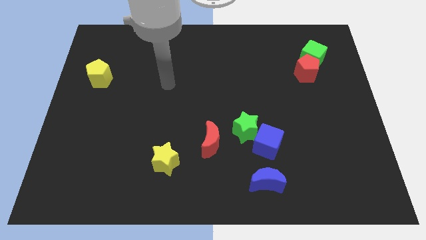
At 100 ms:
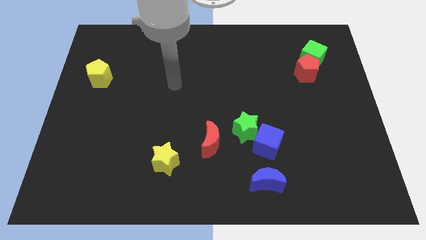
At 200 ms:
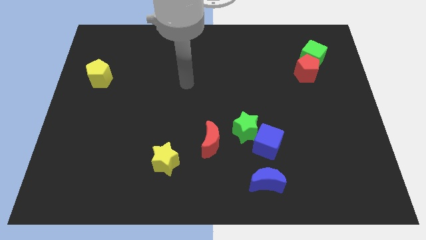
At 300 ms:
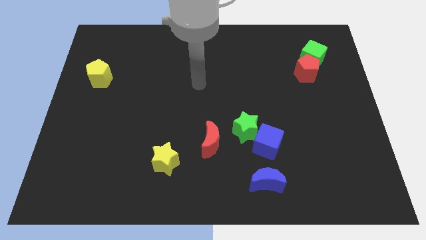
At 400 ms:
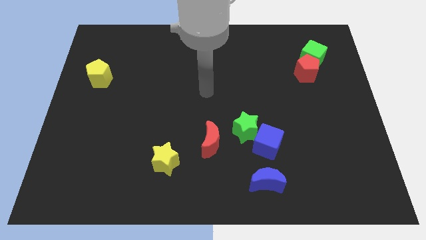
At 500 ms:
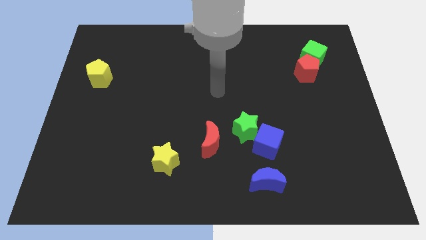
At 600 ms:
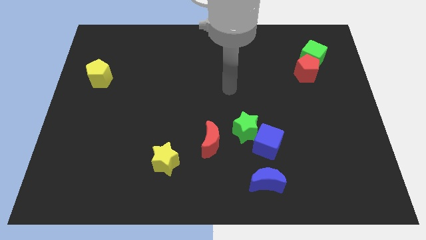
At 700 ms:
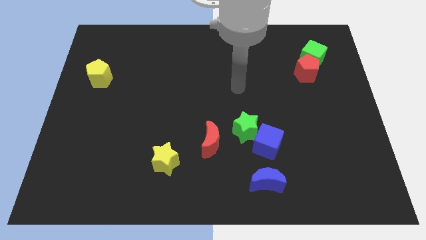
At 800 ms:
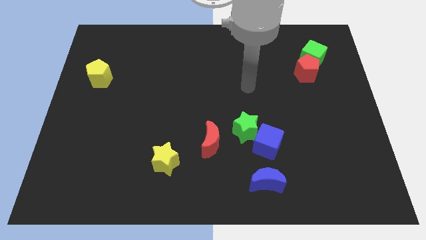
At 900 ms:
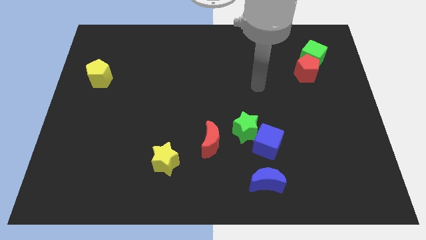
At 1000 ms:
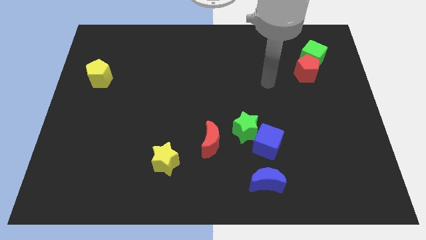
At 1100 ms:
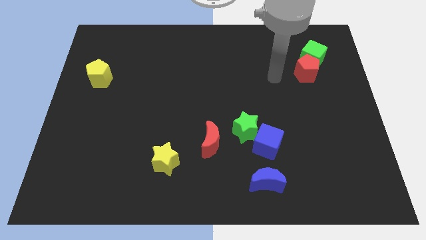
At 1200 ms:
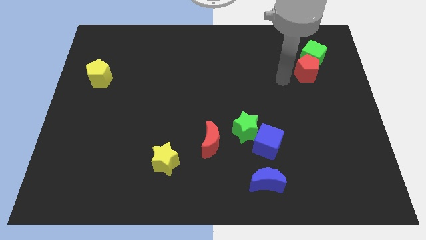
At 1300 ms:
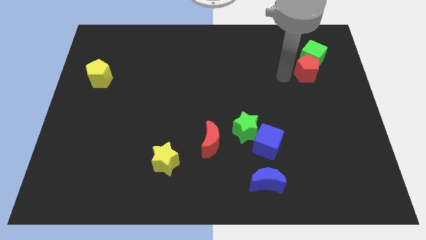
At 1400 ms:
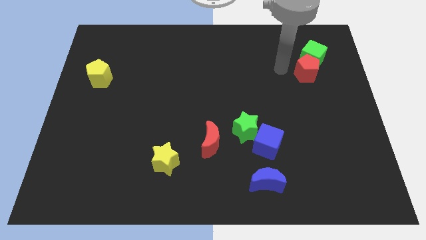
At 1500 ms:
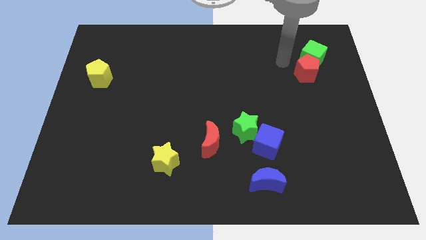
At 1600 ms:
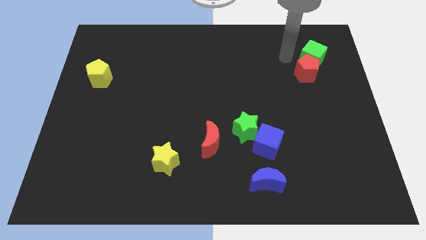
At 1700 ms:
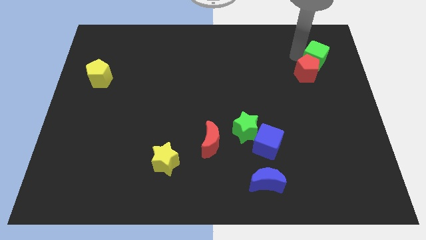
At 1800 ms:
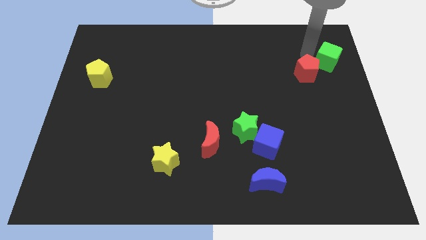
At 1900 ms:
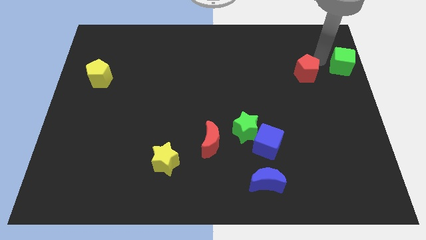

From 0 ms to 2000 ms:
pull the red pentagon apart from the green cube

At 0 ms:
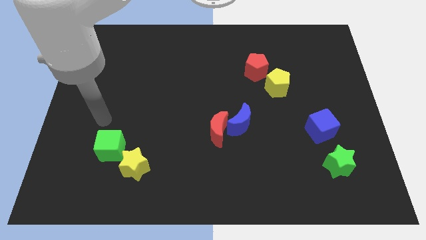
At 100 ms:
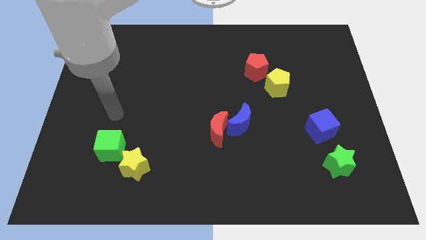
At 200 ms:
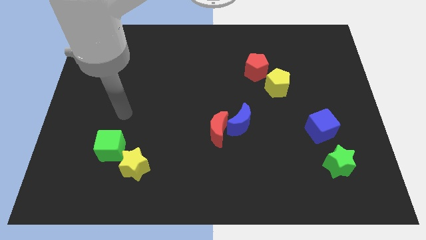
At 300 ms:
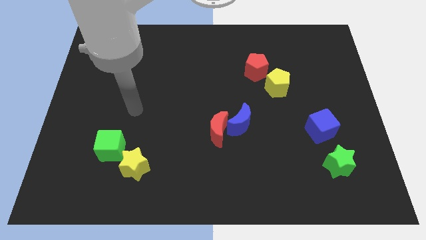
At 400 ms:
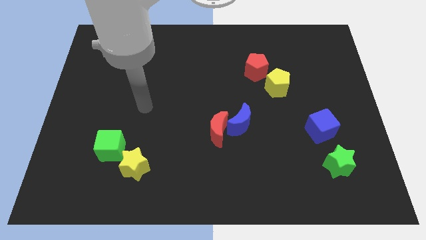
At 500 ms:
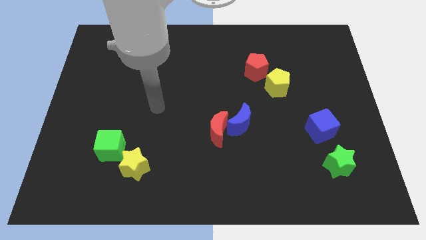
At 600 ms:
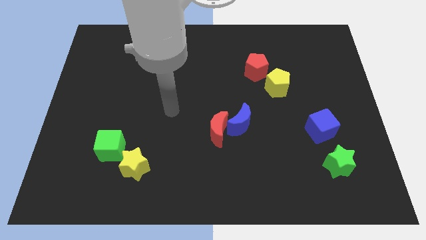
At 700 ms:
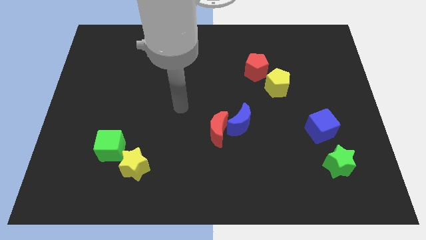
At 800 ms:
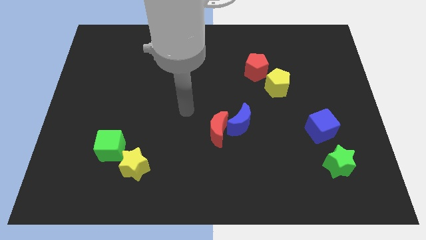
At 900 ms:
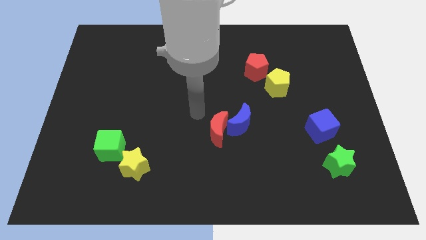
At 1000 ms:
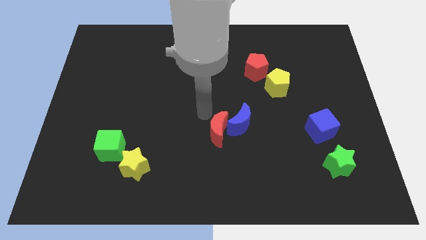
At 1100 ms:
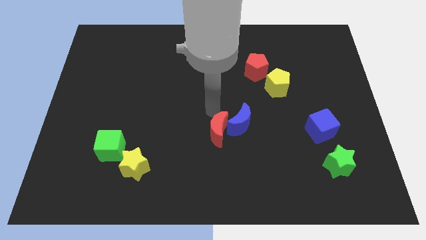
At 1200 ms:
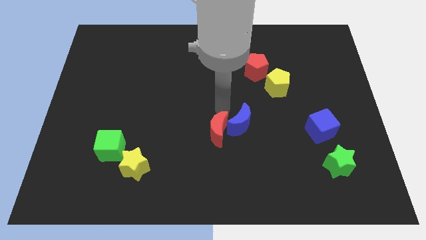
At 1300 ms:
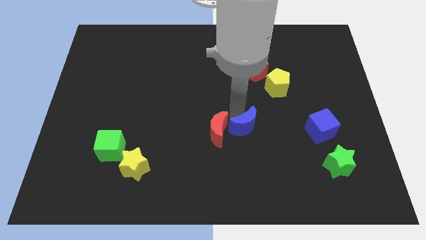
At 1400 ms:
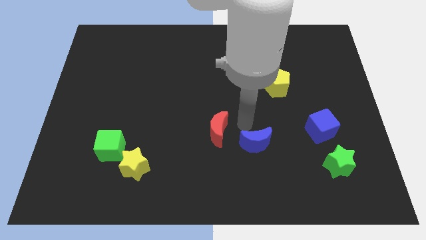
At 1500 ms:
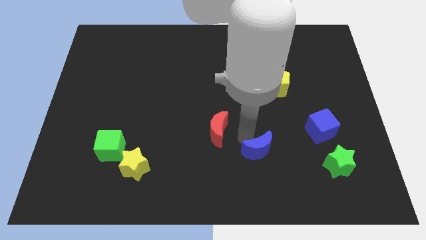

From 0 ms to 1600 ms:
move the red moon away from the blue moon

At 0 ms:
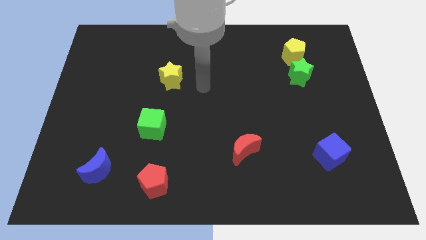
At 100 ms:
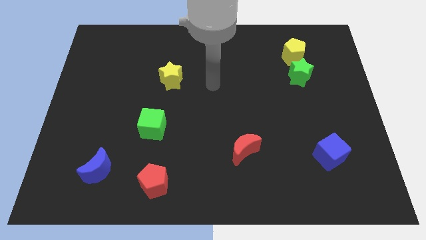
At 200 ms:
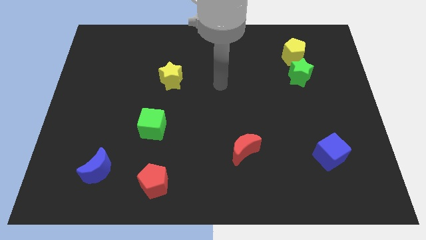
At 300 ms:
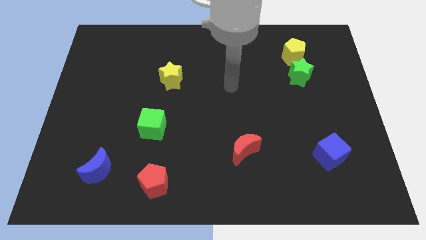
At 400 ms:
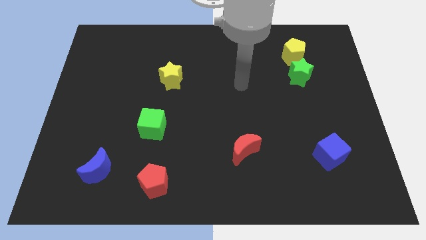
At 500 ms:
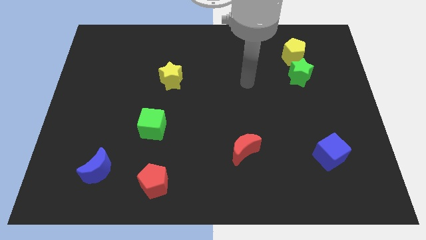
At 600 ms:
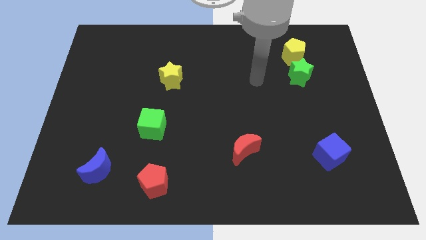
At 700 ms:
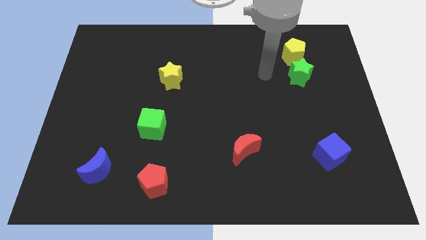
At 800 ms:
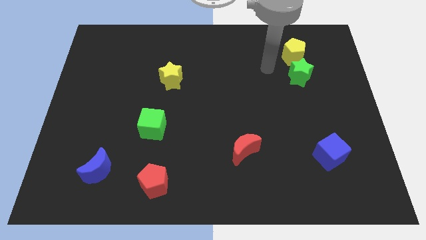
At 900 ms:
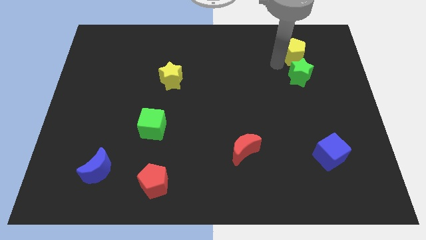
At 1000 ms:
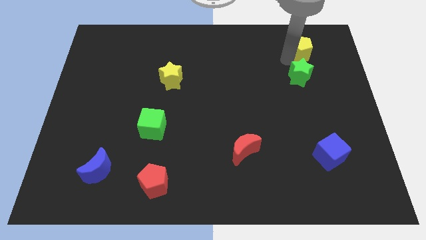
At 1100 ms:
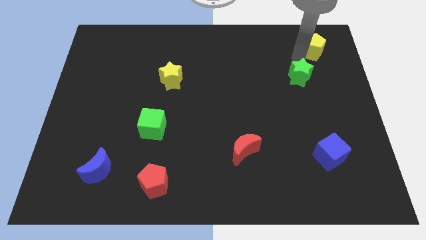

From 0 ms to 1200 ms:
pull the green star apart from the yellow pentagon

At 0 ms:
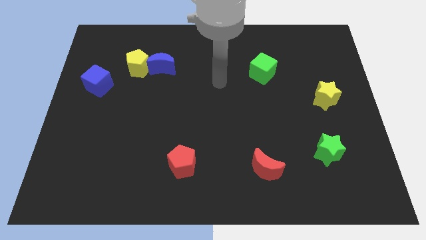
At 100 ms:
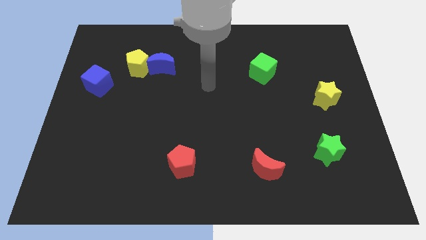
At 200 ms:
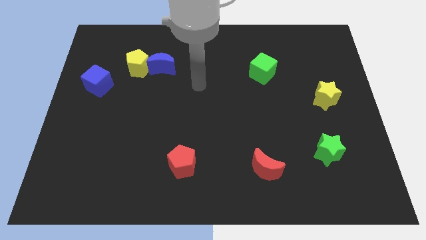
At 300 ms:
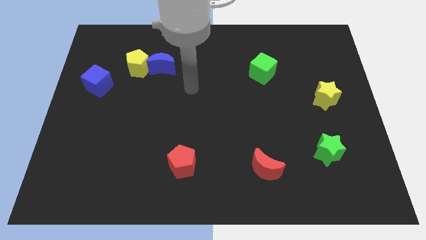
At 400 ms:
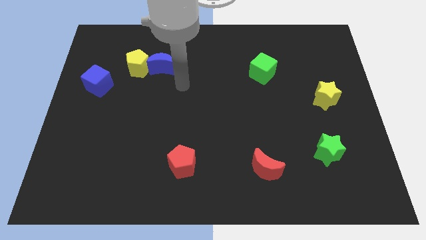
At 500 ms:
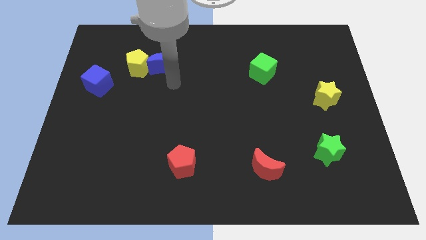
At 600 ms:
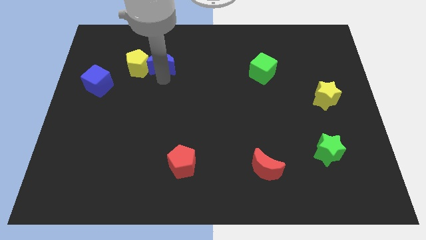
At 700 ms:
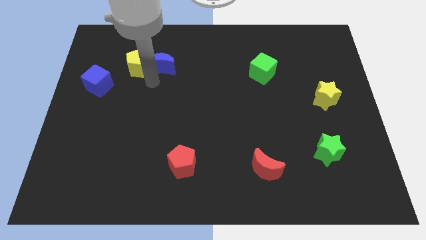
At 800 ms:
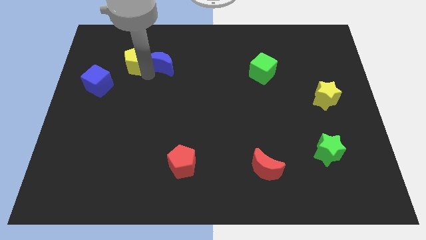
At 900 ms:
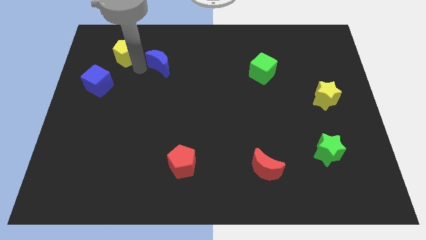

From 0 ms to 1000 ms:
pull the blue moon apart from the yellow pentagon

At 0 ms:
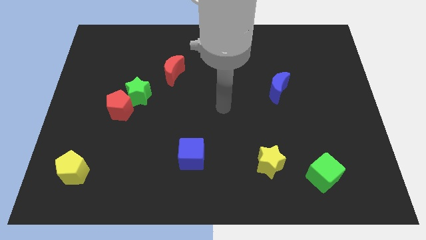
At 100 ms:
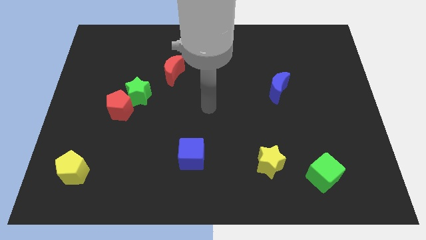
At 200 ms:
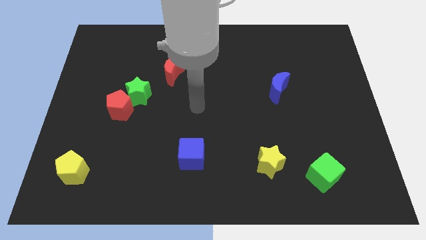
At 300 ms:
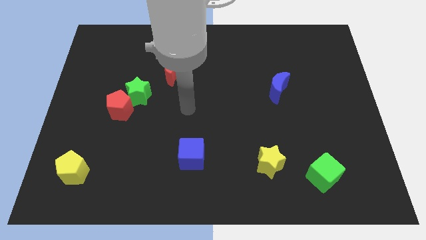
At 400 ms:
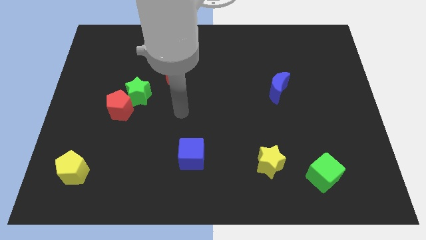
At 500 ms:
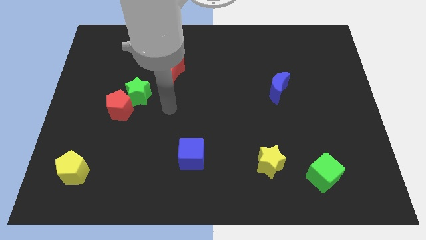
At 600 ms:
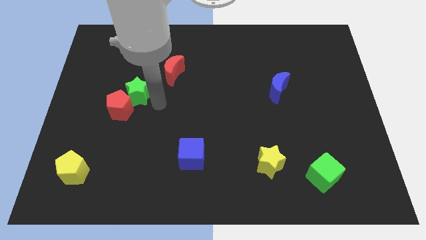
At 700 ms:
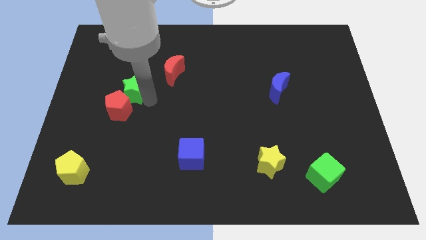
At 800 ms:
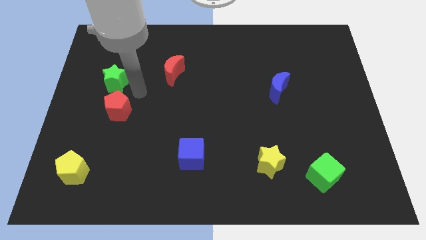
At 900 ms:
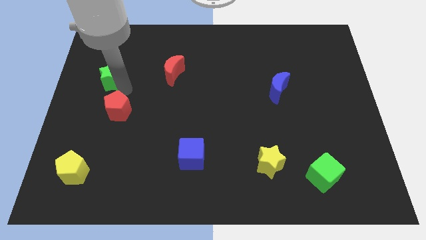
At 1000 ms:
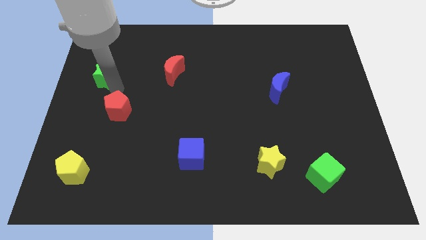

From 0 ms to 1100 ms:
separate the red pentagon from the green star

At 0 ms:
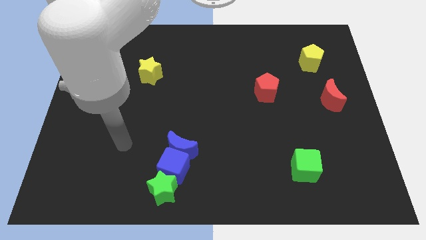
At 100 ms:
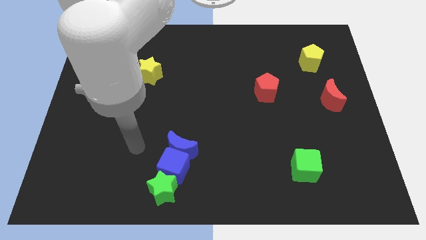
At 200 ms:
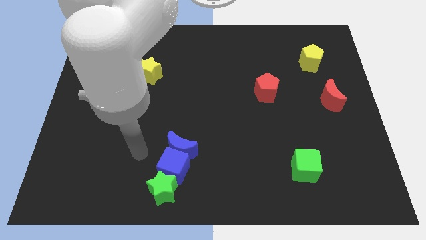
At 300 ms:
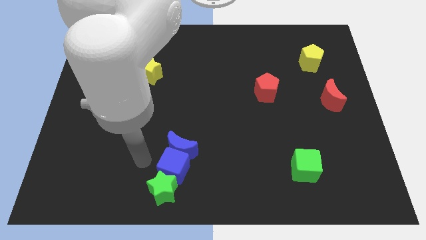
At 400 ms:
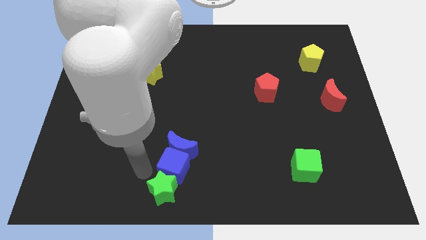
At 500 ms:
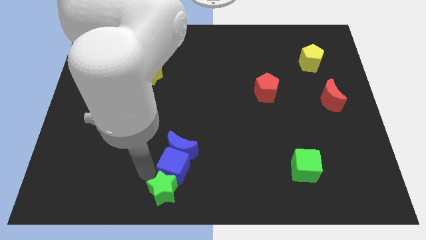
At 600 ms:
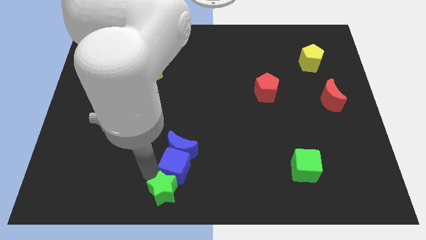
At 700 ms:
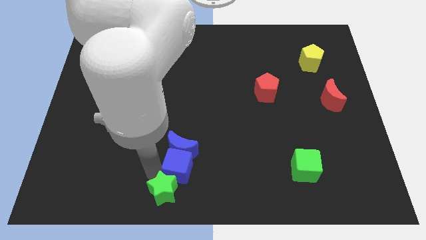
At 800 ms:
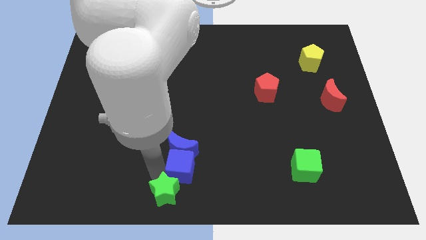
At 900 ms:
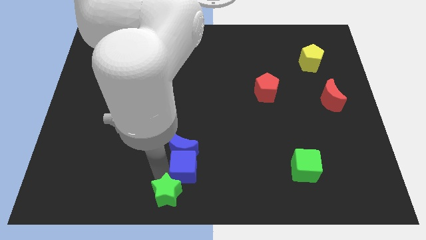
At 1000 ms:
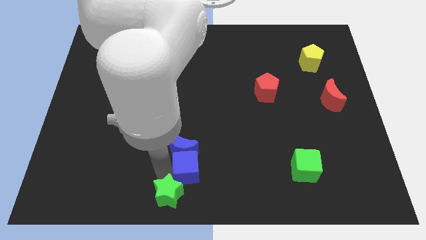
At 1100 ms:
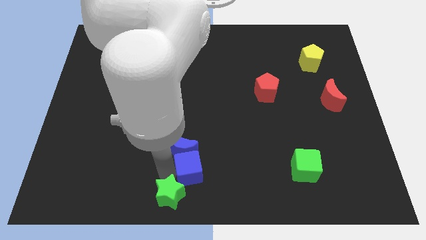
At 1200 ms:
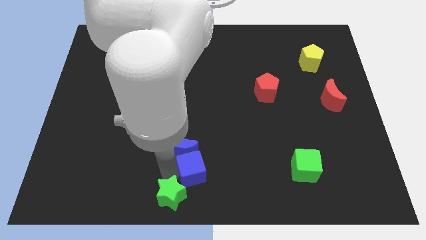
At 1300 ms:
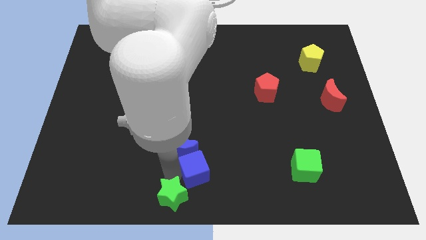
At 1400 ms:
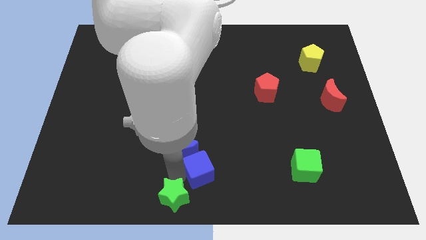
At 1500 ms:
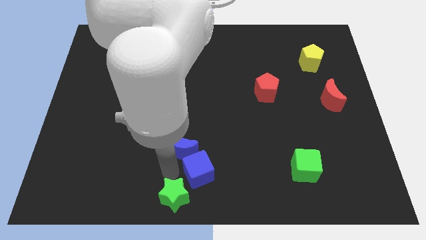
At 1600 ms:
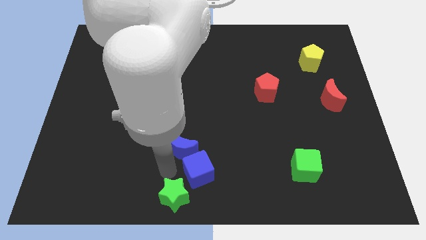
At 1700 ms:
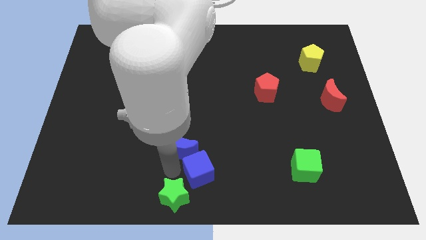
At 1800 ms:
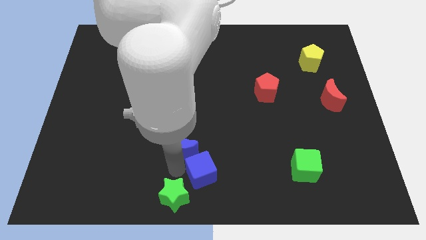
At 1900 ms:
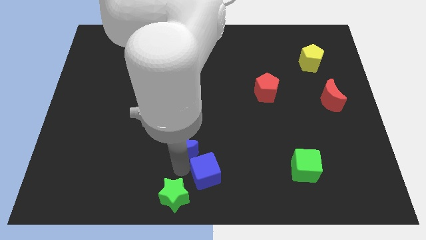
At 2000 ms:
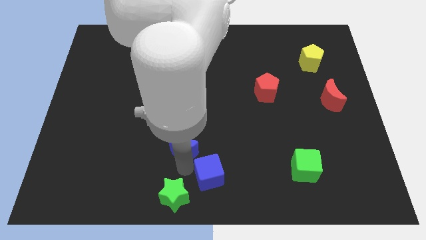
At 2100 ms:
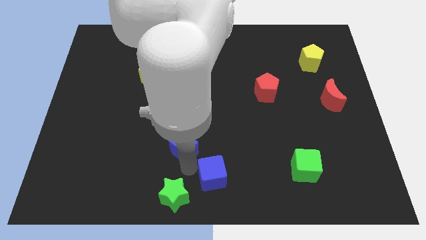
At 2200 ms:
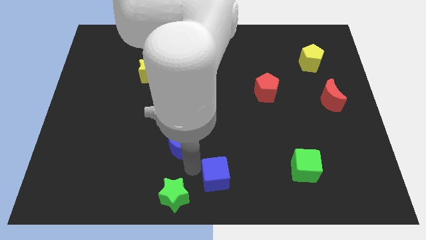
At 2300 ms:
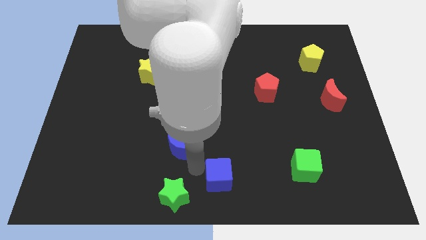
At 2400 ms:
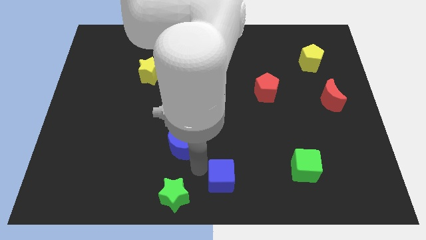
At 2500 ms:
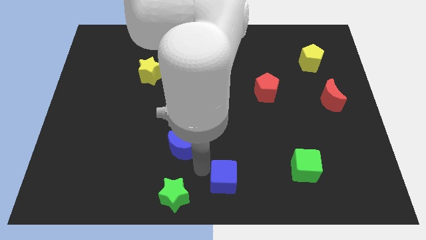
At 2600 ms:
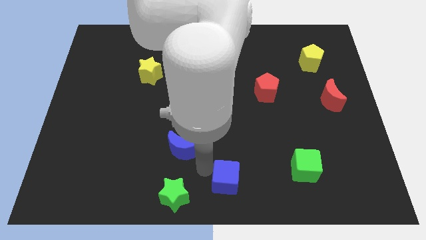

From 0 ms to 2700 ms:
pull the blue cube apart from the blue moon and green star
